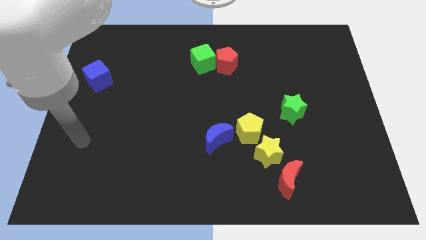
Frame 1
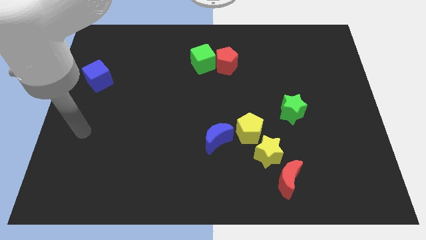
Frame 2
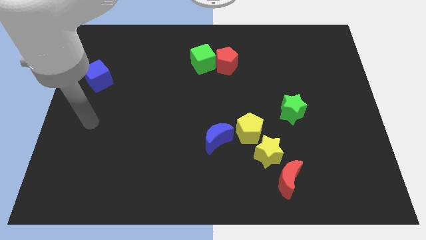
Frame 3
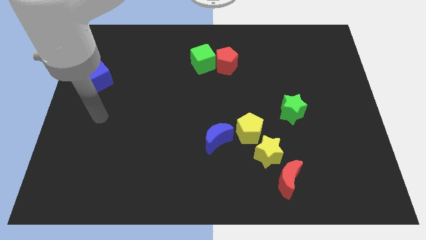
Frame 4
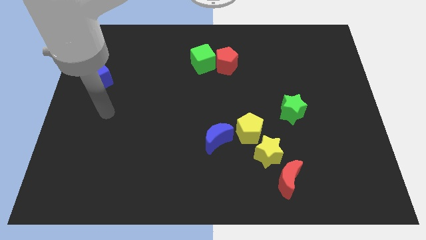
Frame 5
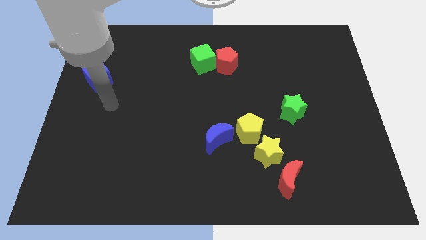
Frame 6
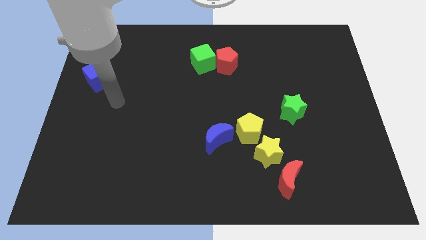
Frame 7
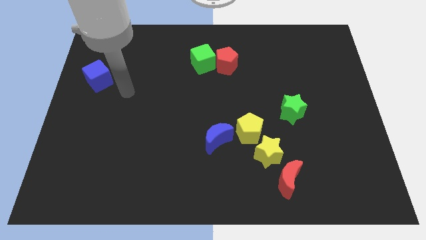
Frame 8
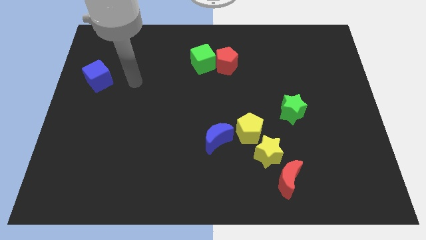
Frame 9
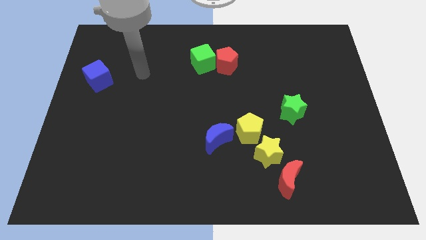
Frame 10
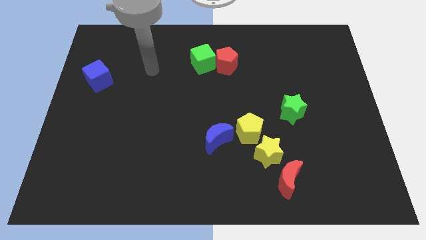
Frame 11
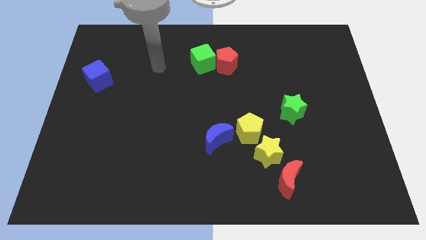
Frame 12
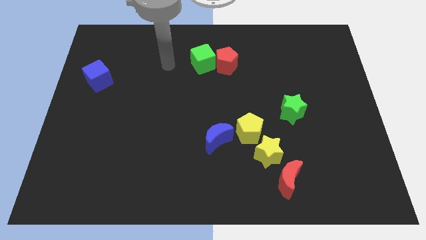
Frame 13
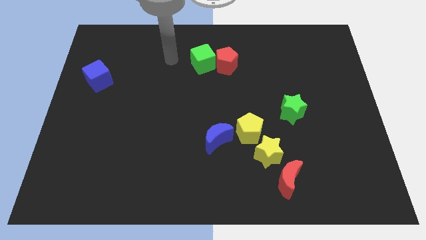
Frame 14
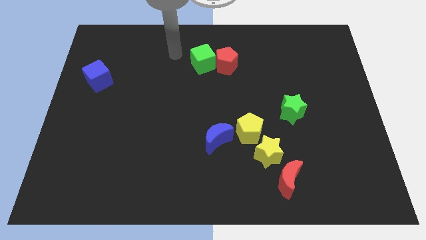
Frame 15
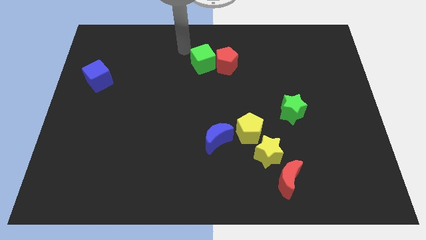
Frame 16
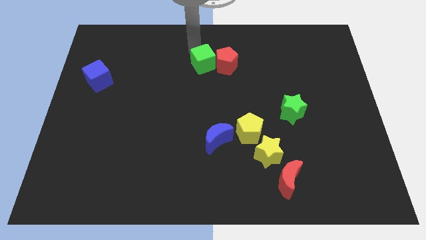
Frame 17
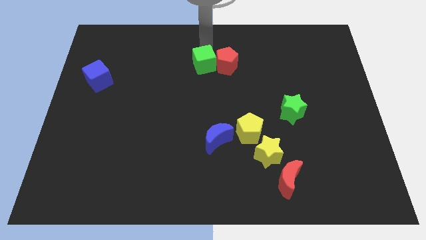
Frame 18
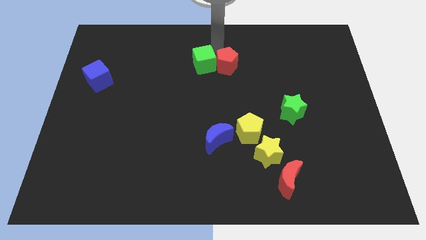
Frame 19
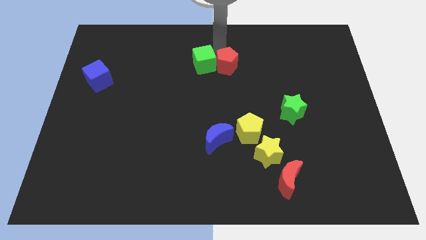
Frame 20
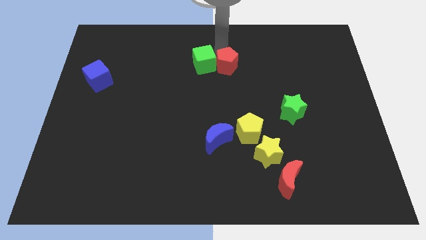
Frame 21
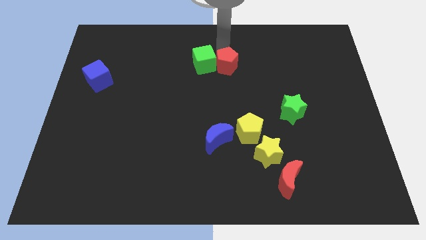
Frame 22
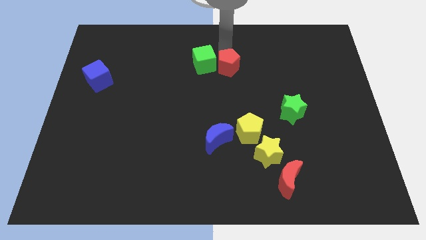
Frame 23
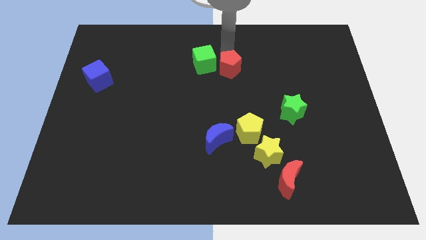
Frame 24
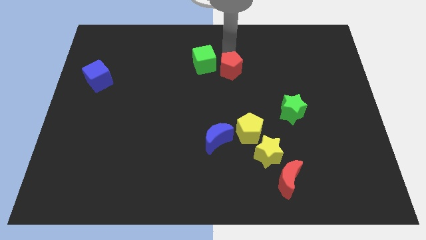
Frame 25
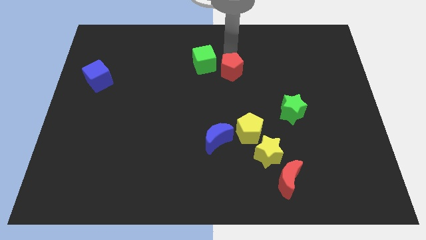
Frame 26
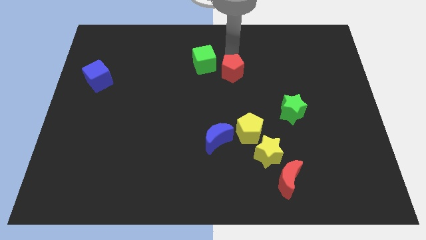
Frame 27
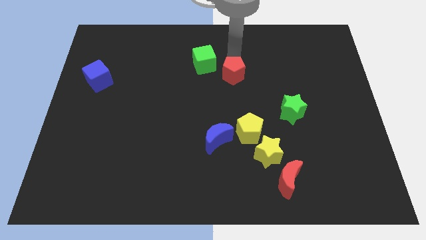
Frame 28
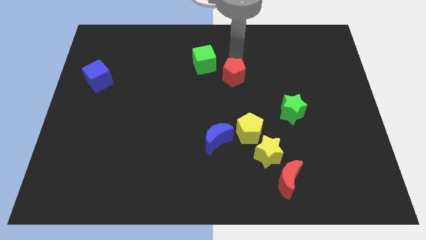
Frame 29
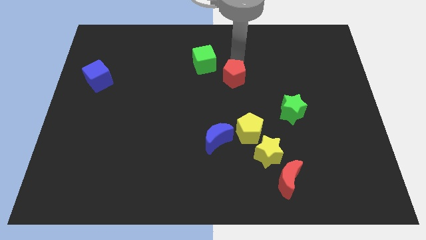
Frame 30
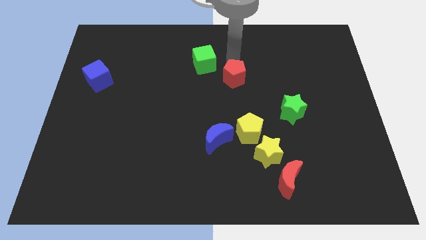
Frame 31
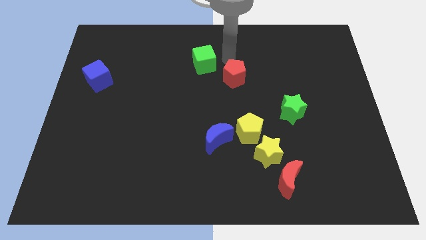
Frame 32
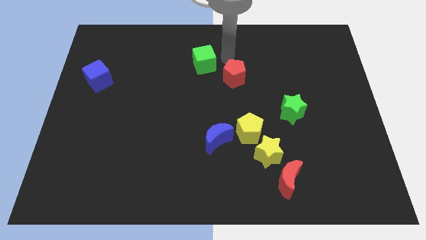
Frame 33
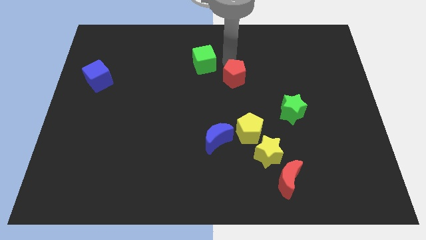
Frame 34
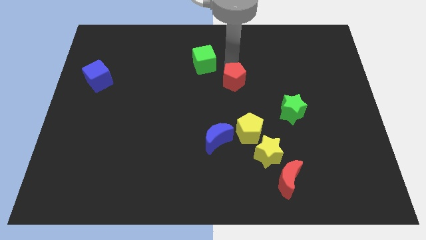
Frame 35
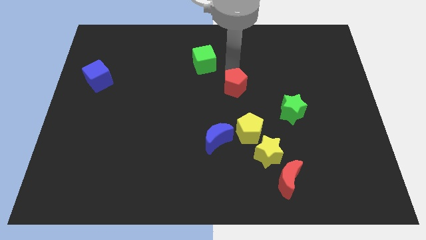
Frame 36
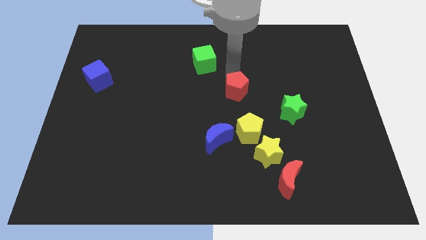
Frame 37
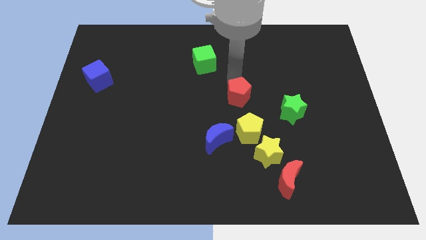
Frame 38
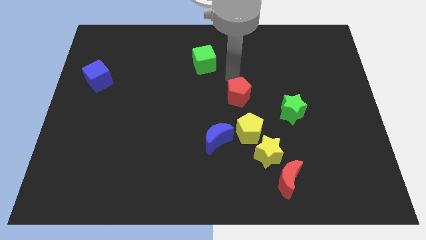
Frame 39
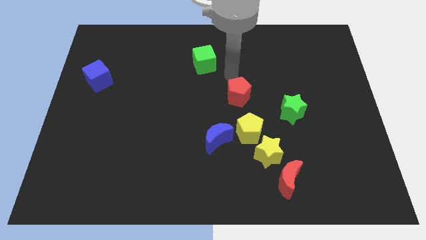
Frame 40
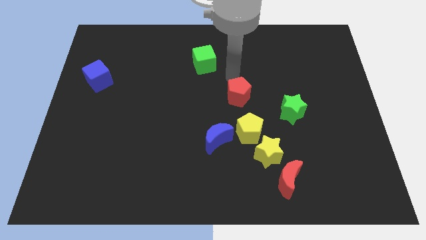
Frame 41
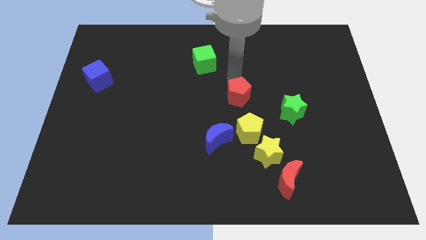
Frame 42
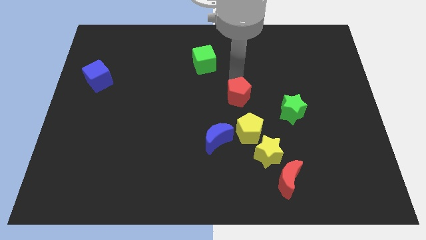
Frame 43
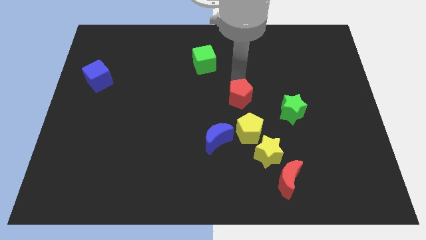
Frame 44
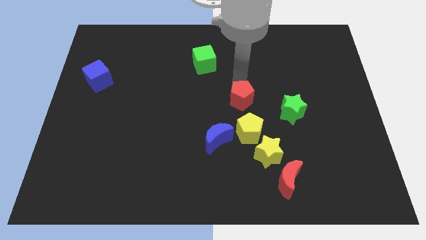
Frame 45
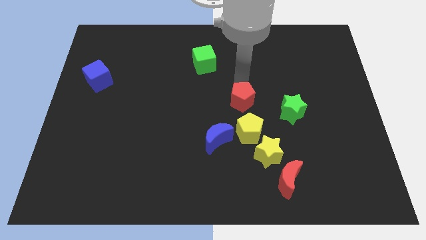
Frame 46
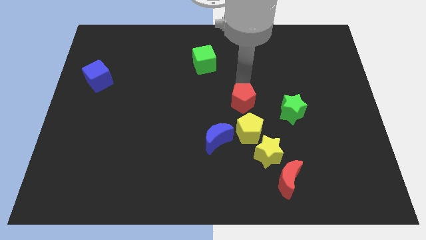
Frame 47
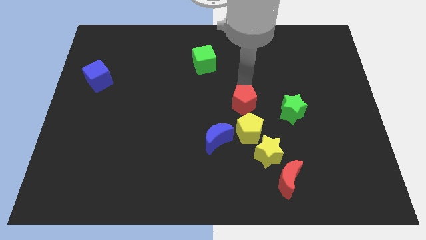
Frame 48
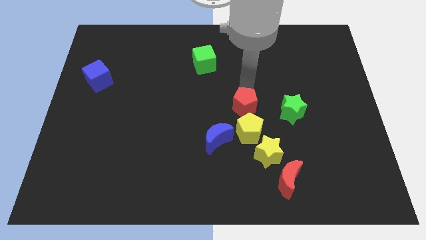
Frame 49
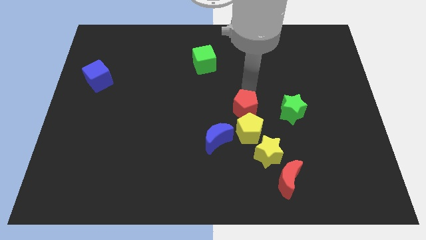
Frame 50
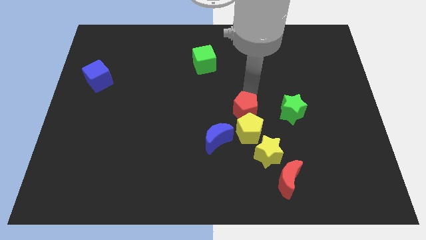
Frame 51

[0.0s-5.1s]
push the red pentagon close to the yellow pentagon

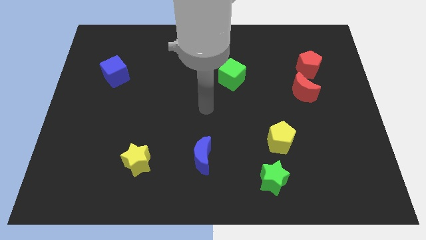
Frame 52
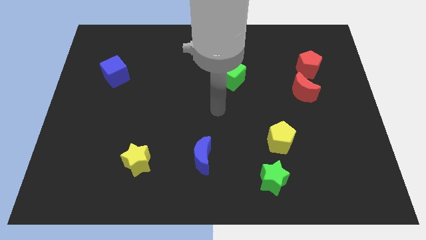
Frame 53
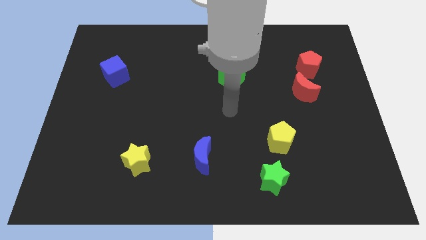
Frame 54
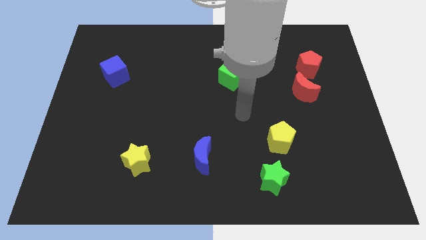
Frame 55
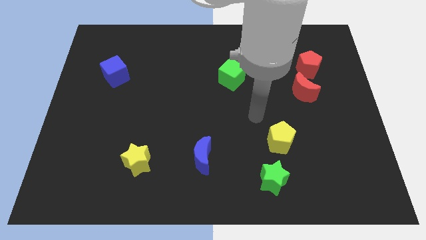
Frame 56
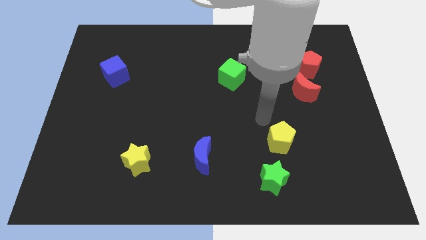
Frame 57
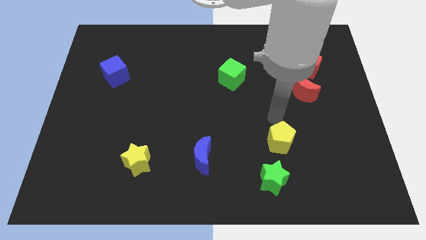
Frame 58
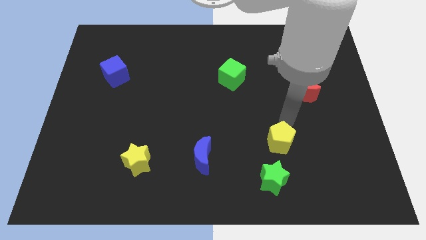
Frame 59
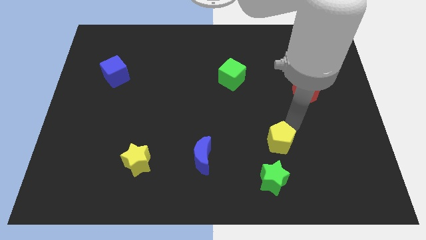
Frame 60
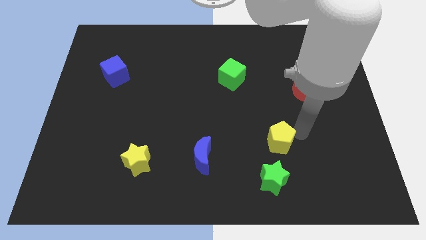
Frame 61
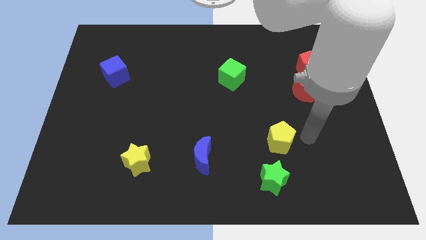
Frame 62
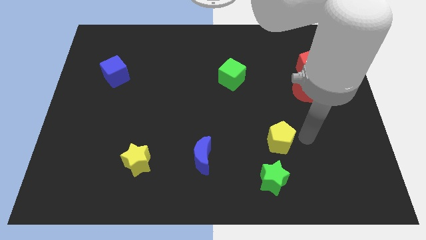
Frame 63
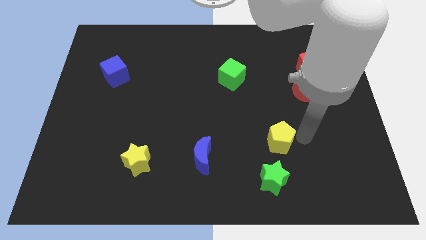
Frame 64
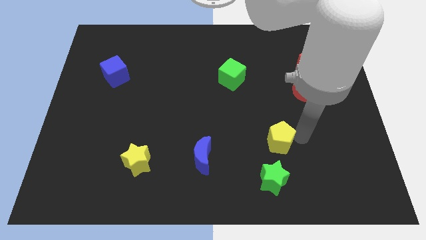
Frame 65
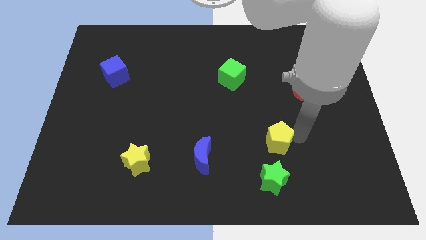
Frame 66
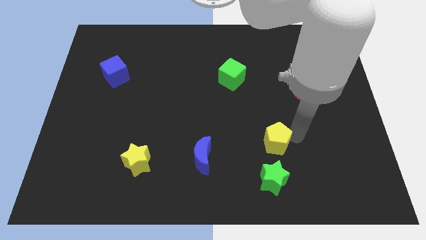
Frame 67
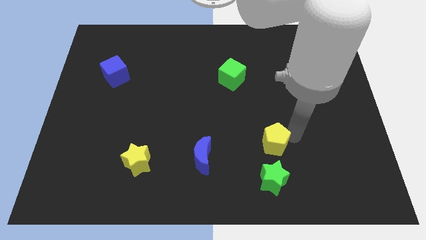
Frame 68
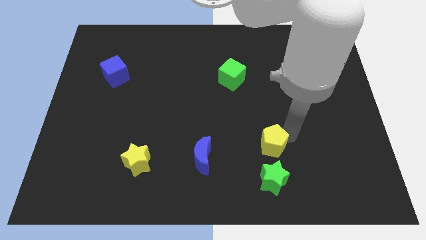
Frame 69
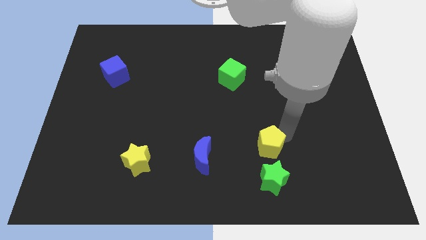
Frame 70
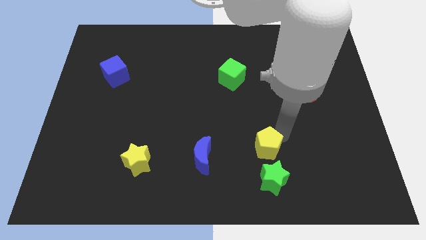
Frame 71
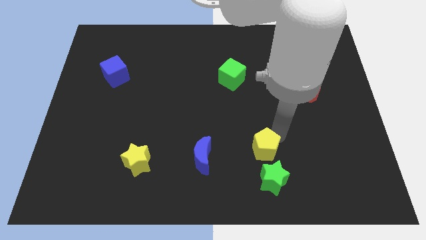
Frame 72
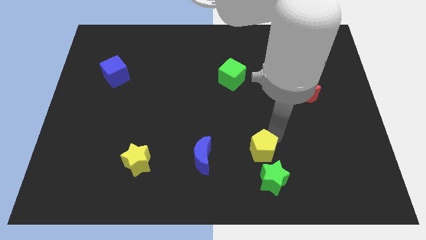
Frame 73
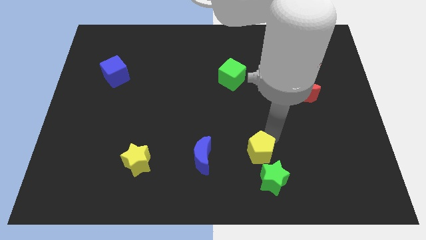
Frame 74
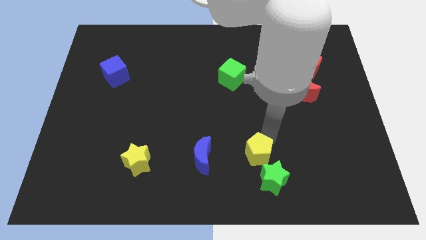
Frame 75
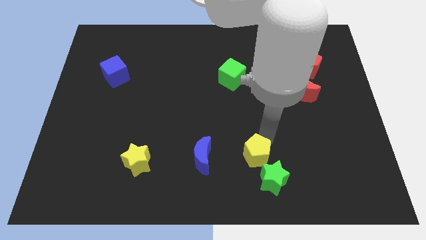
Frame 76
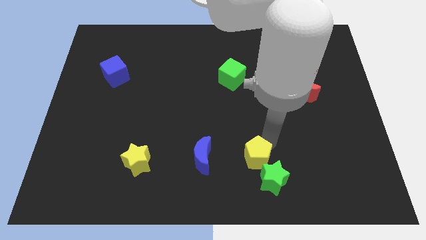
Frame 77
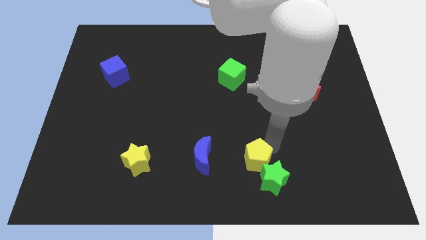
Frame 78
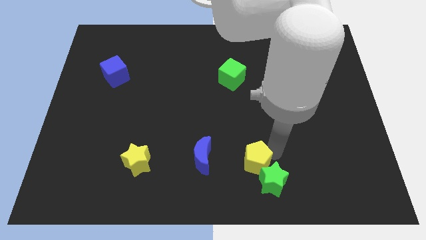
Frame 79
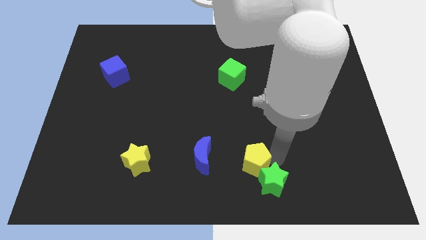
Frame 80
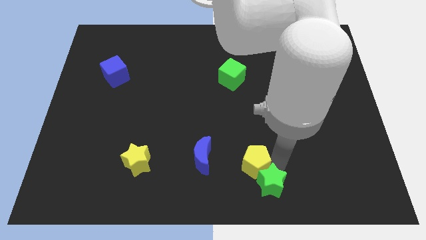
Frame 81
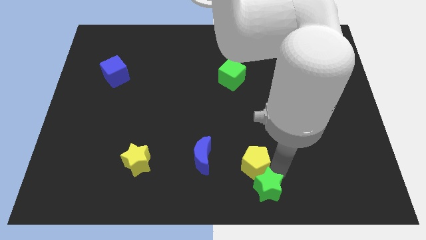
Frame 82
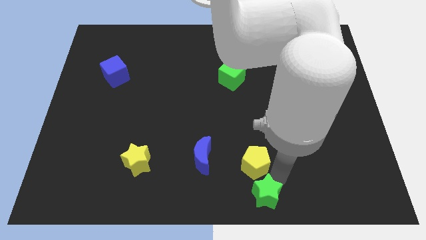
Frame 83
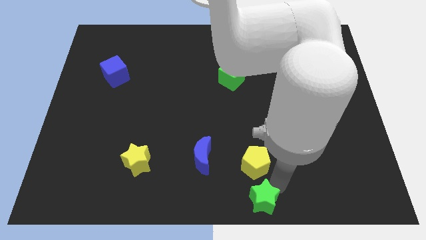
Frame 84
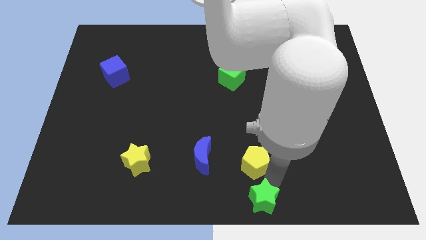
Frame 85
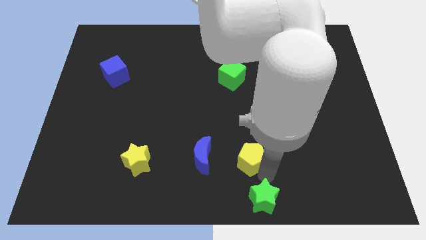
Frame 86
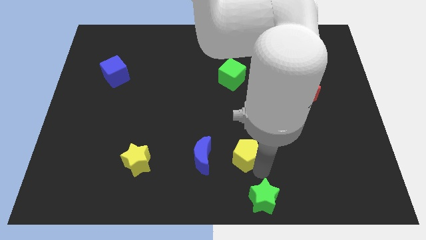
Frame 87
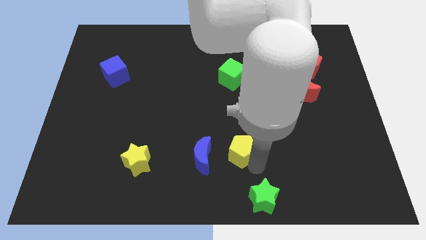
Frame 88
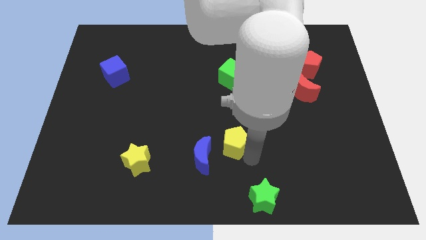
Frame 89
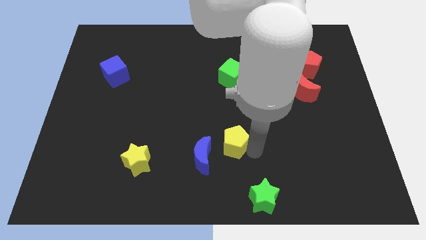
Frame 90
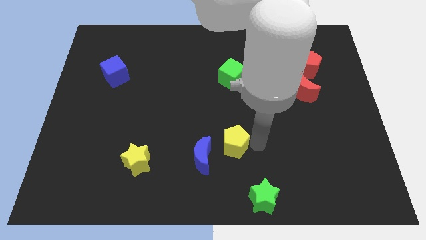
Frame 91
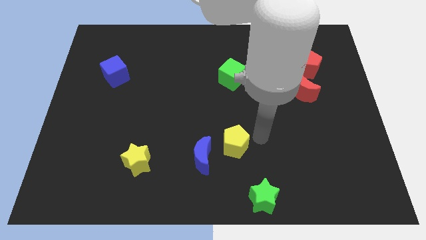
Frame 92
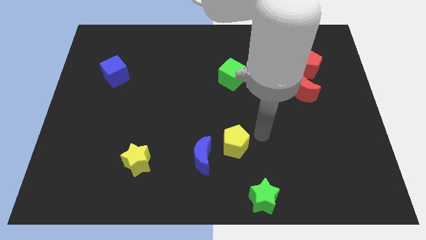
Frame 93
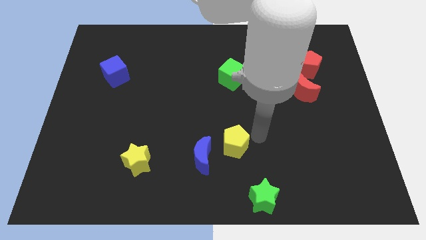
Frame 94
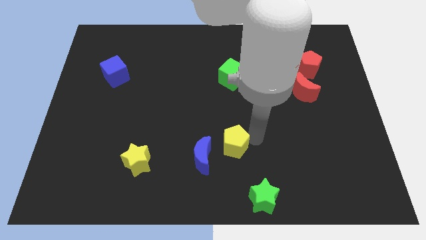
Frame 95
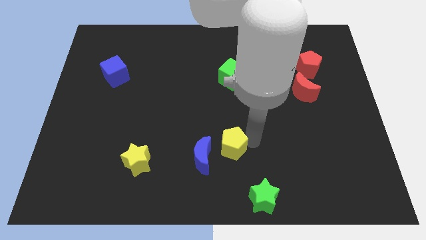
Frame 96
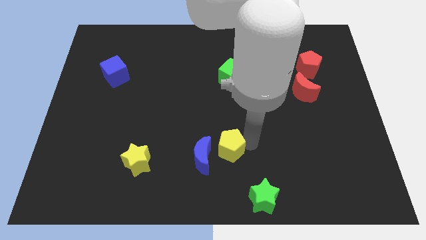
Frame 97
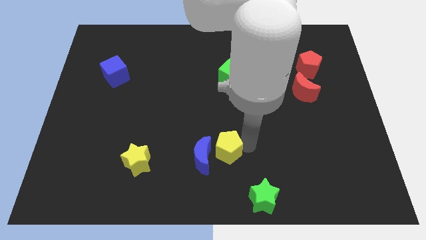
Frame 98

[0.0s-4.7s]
slide the yellow pentagon towards the blue moon
